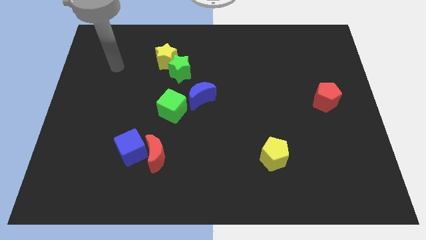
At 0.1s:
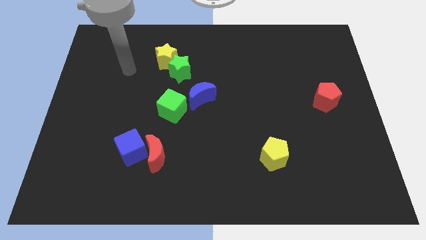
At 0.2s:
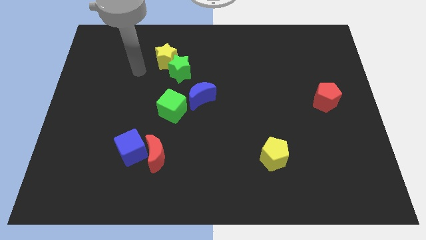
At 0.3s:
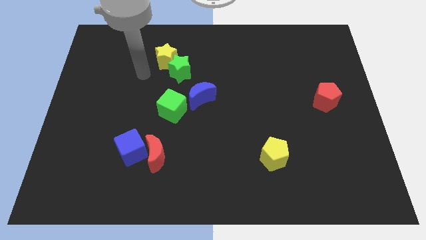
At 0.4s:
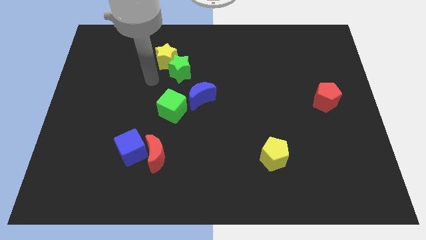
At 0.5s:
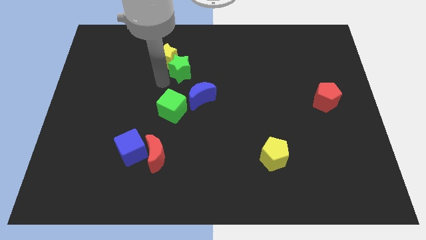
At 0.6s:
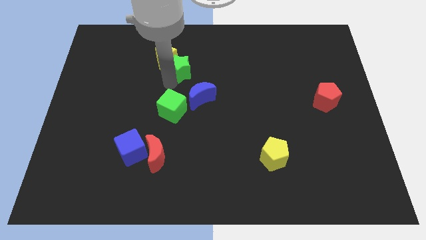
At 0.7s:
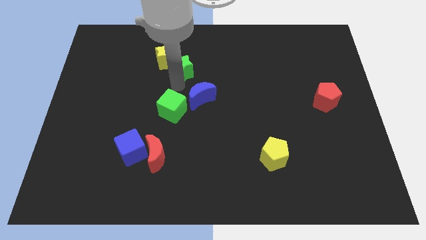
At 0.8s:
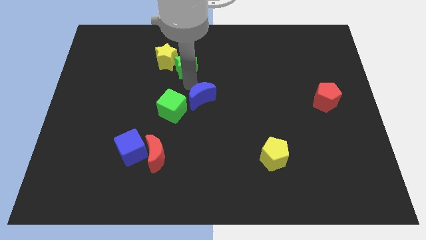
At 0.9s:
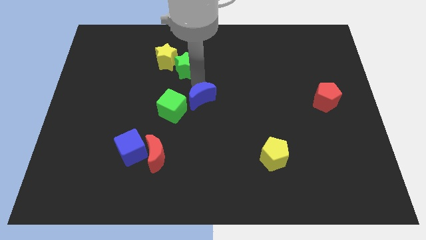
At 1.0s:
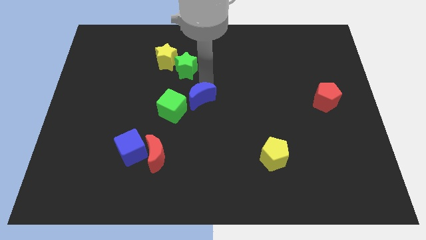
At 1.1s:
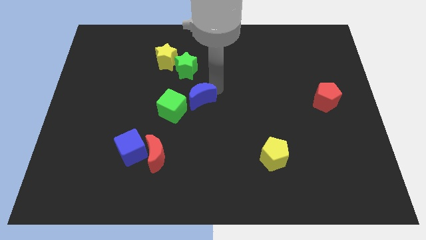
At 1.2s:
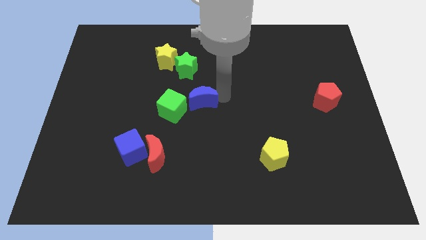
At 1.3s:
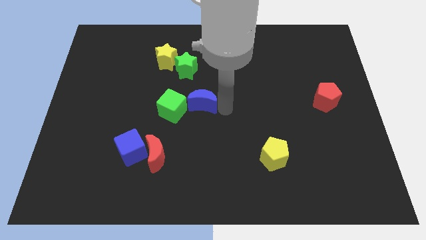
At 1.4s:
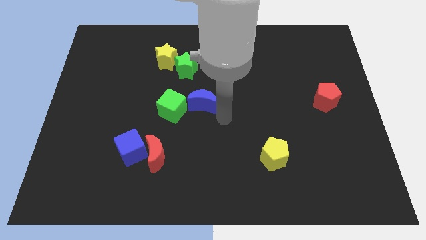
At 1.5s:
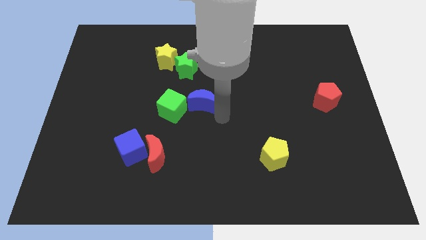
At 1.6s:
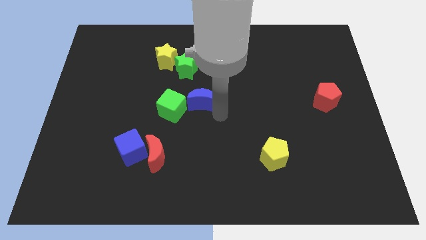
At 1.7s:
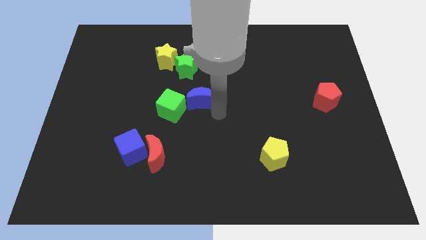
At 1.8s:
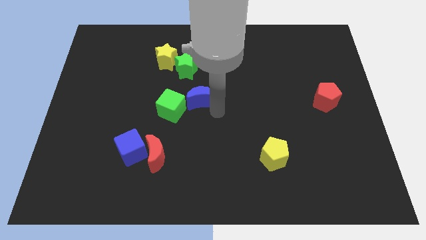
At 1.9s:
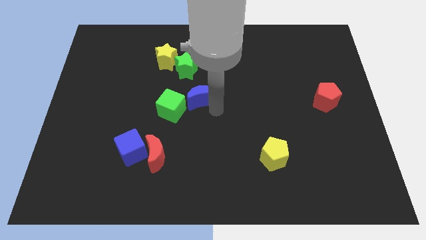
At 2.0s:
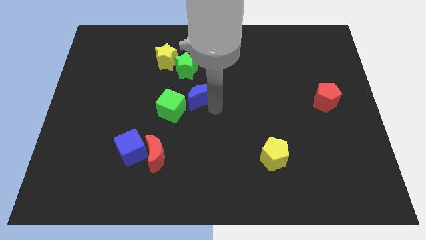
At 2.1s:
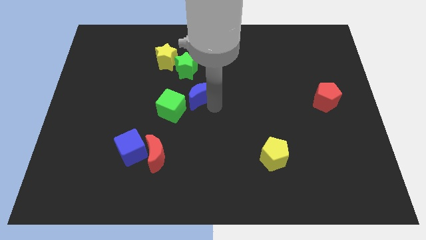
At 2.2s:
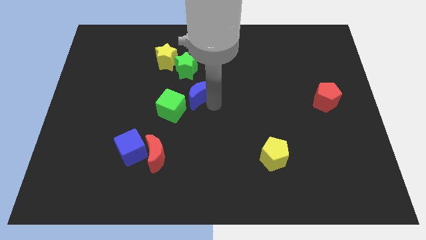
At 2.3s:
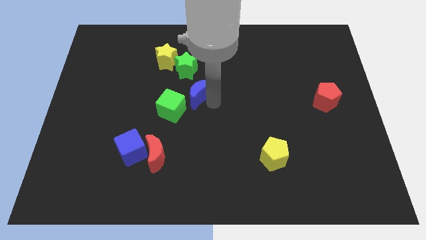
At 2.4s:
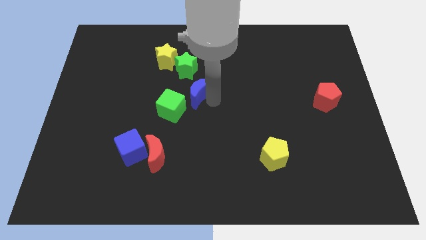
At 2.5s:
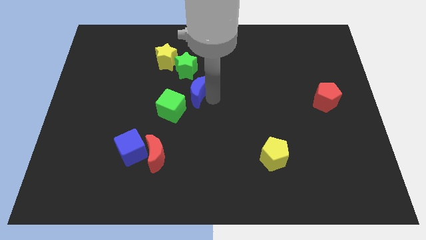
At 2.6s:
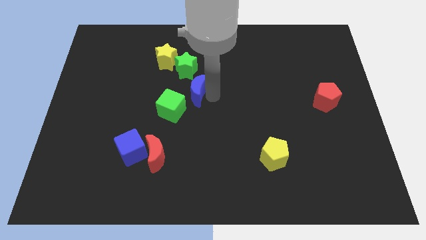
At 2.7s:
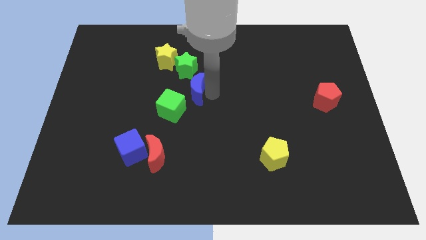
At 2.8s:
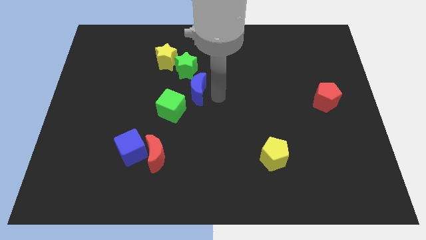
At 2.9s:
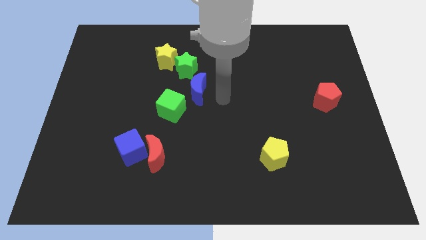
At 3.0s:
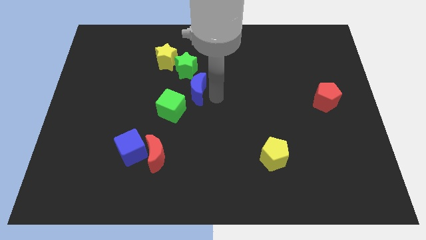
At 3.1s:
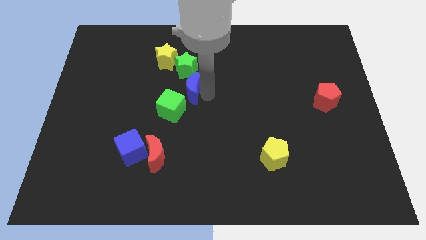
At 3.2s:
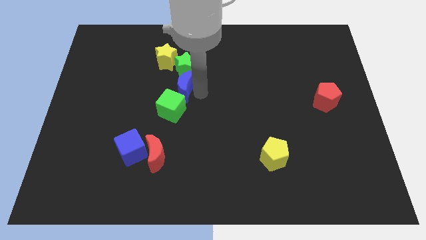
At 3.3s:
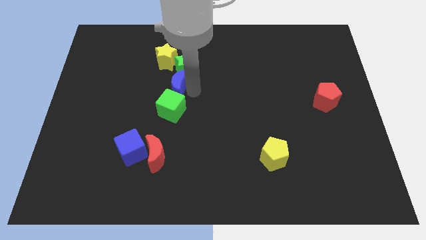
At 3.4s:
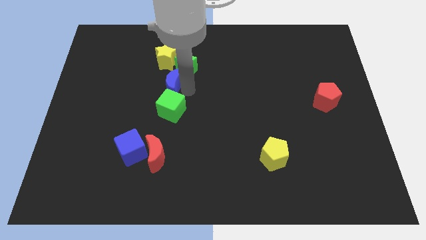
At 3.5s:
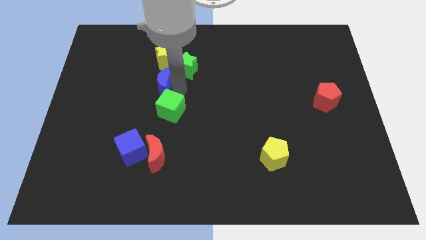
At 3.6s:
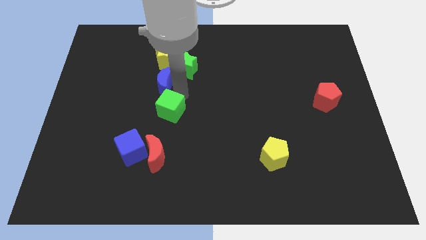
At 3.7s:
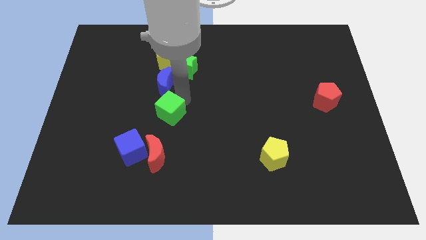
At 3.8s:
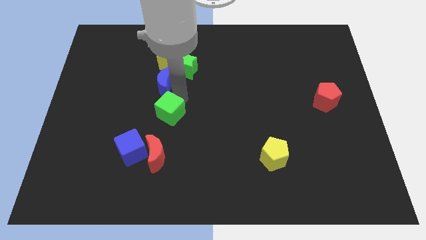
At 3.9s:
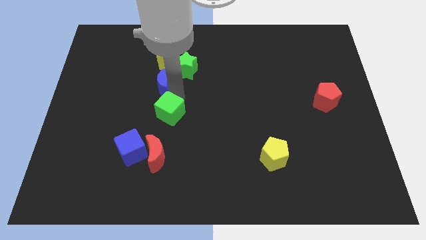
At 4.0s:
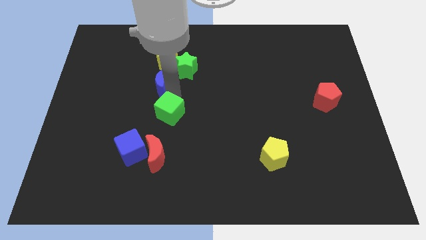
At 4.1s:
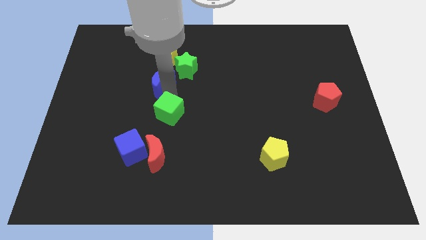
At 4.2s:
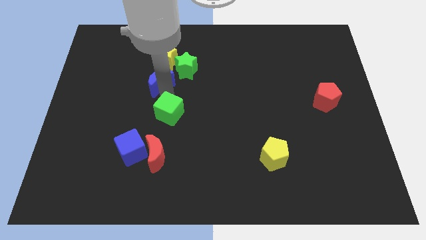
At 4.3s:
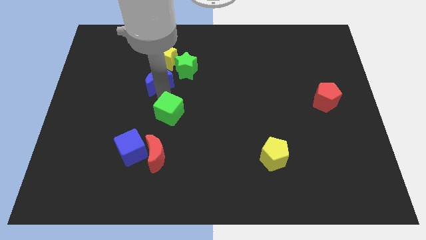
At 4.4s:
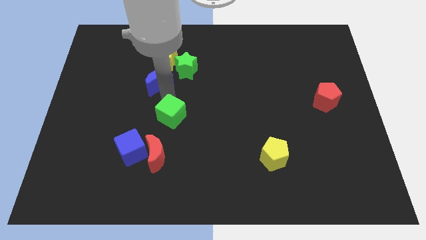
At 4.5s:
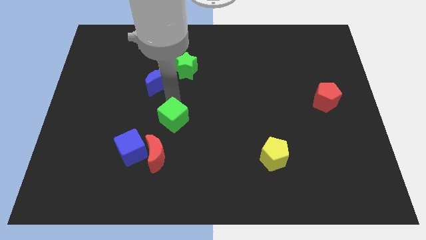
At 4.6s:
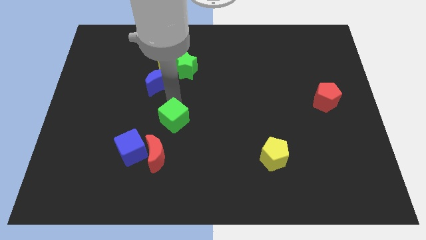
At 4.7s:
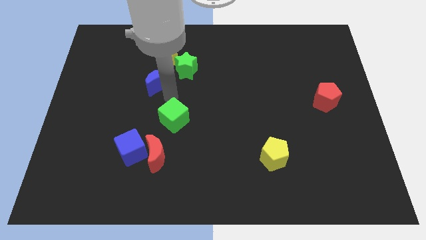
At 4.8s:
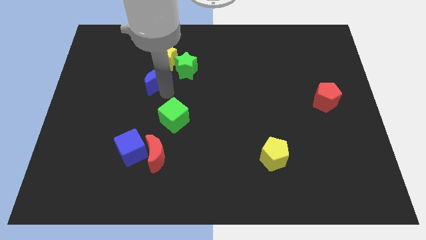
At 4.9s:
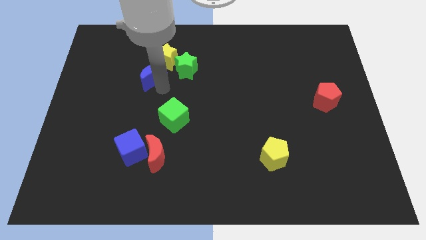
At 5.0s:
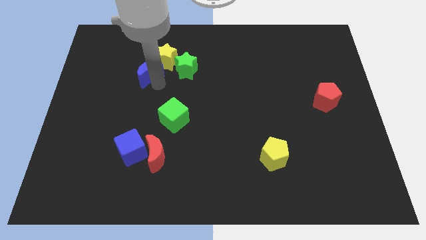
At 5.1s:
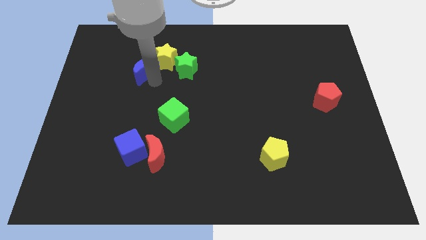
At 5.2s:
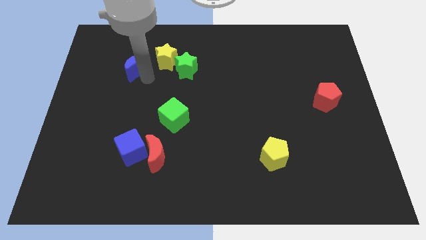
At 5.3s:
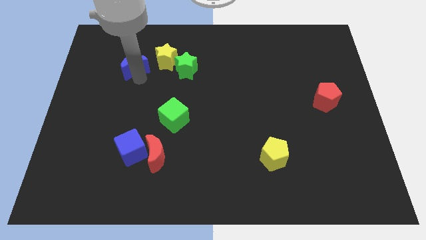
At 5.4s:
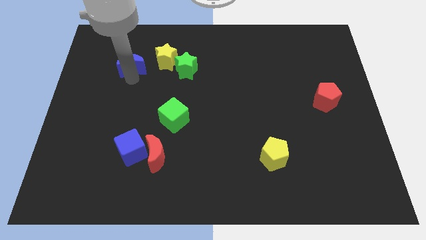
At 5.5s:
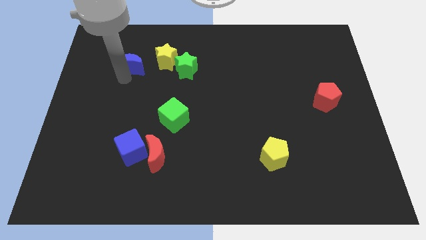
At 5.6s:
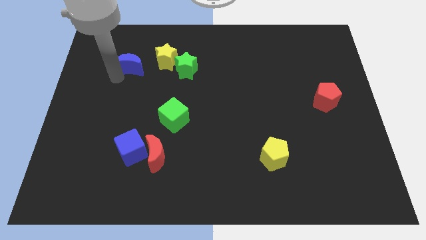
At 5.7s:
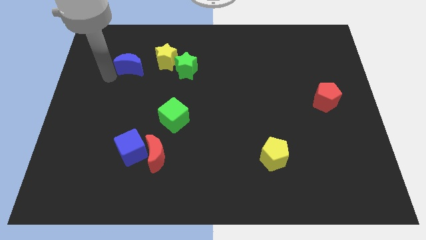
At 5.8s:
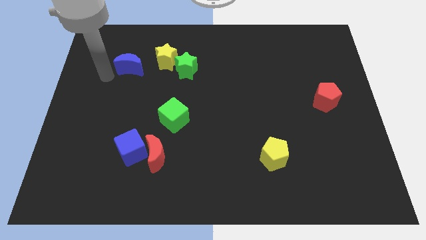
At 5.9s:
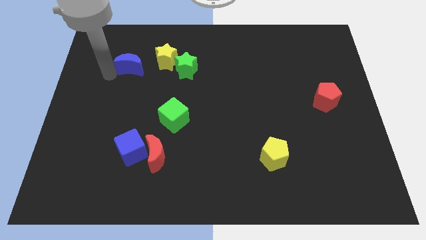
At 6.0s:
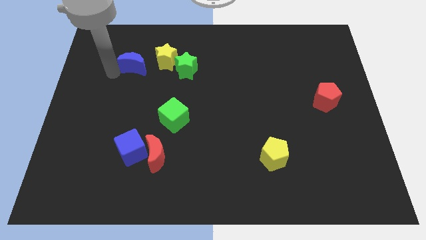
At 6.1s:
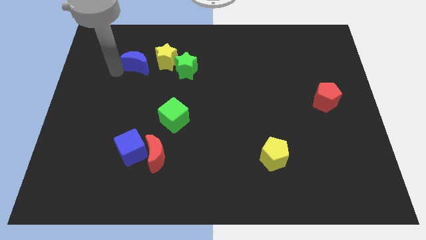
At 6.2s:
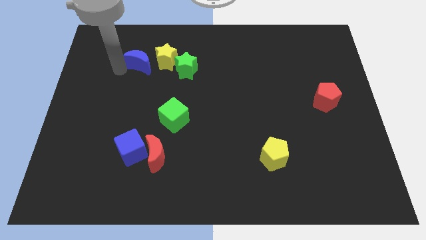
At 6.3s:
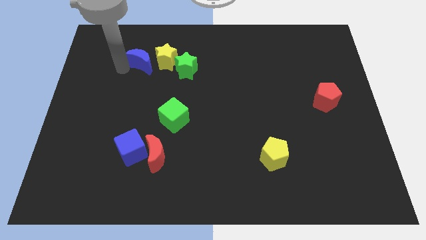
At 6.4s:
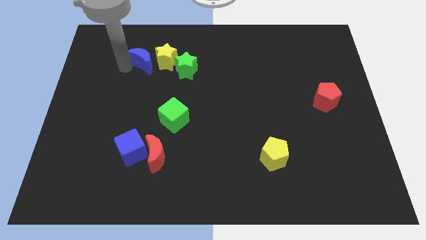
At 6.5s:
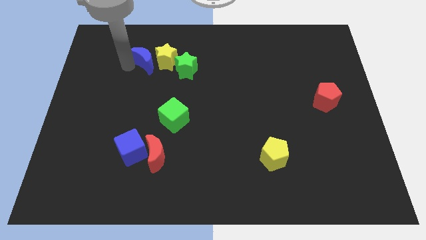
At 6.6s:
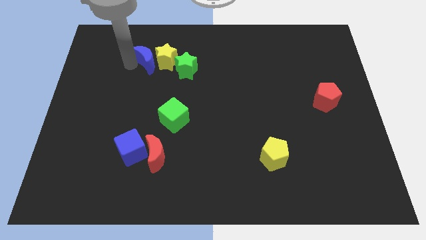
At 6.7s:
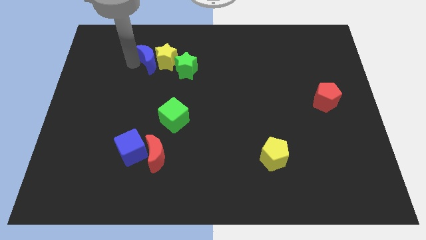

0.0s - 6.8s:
slide the blue moon to the top left side of the green star

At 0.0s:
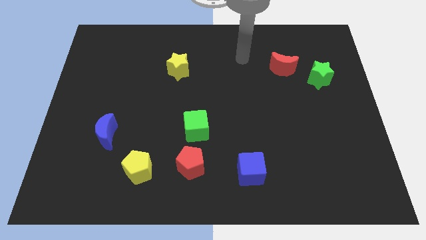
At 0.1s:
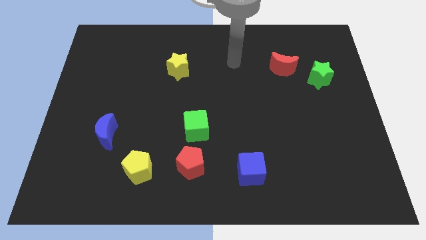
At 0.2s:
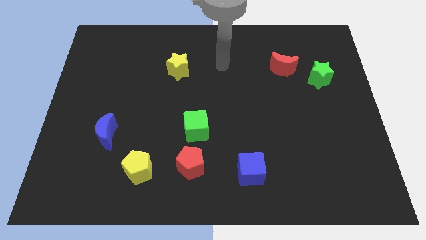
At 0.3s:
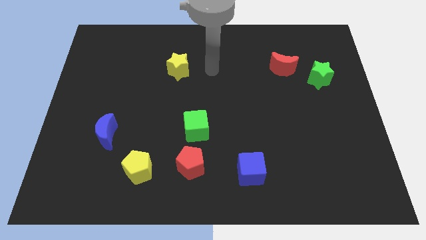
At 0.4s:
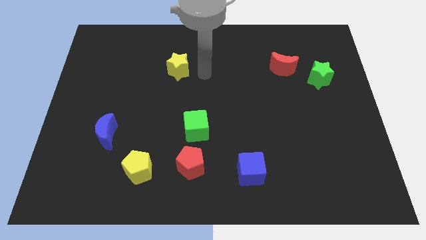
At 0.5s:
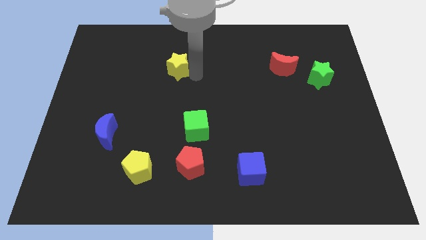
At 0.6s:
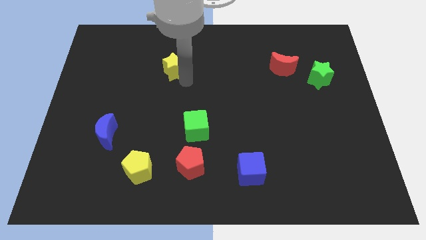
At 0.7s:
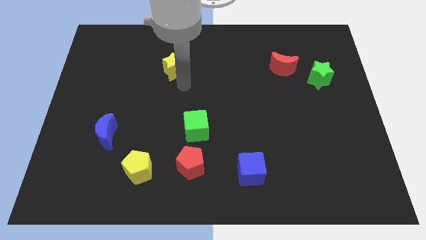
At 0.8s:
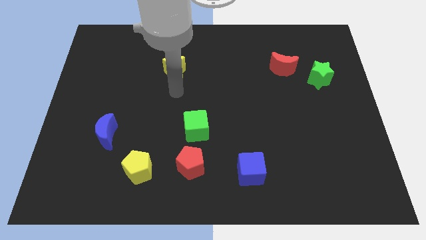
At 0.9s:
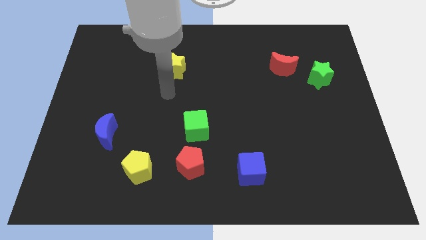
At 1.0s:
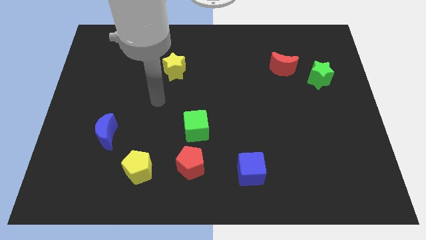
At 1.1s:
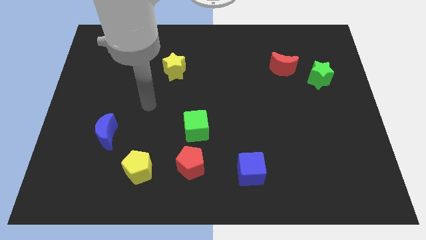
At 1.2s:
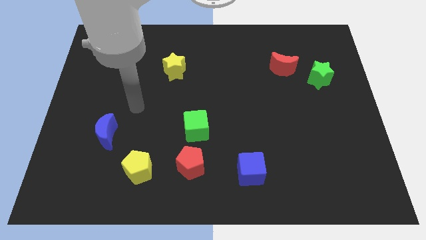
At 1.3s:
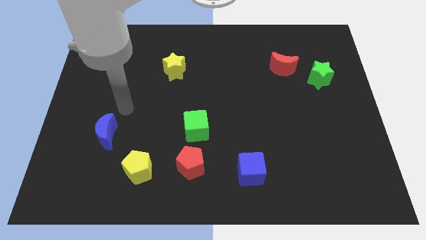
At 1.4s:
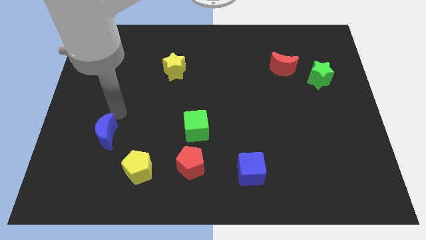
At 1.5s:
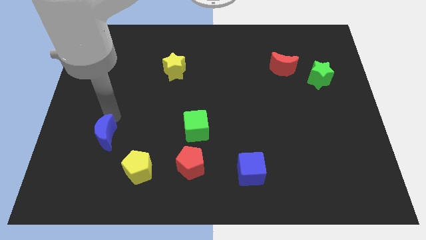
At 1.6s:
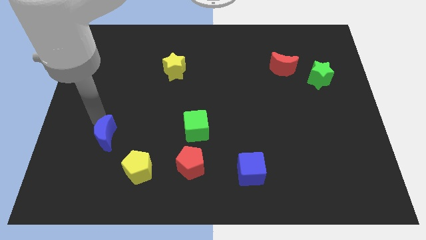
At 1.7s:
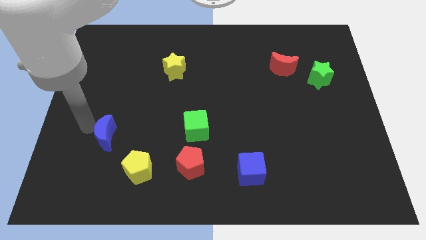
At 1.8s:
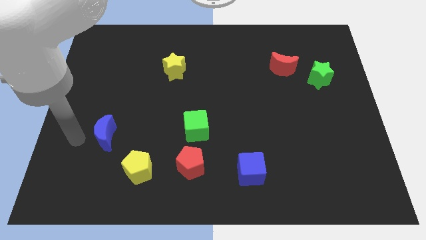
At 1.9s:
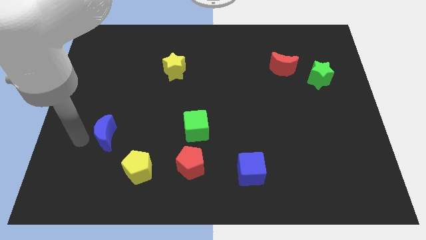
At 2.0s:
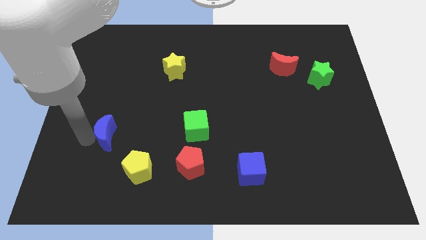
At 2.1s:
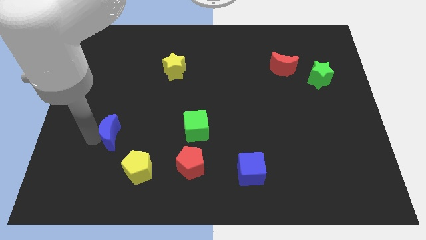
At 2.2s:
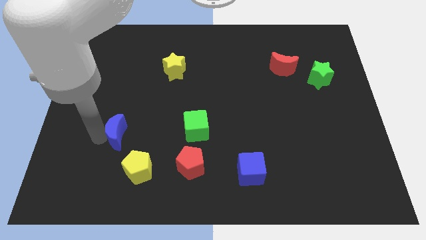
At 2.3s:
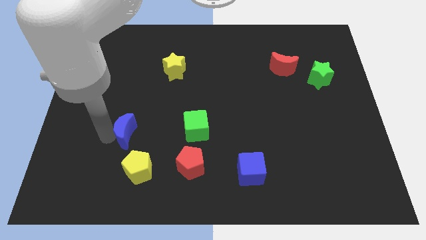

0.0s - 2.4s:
push the blue moon above the yellow pentagon
